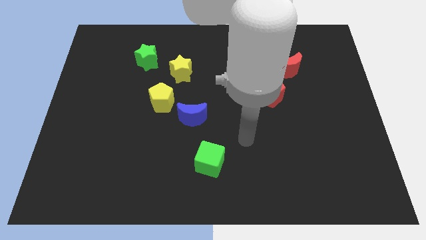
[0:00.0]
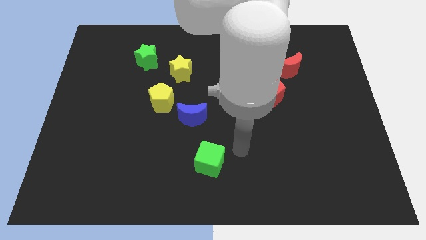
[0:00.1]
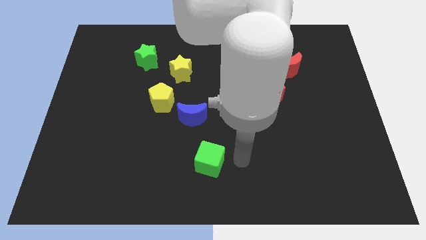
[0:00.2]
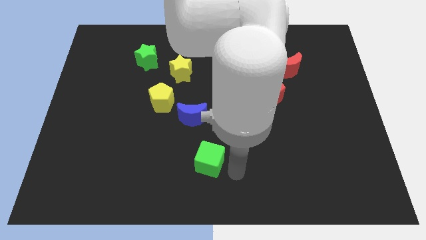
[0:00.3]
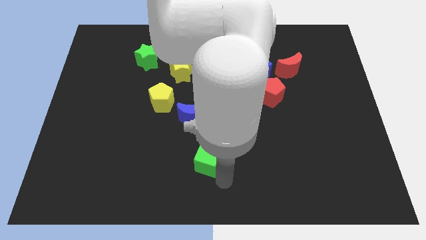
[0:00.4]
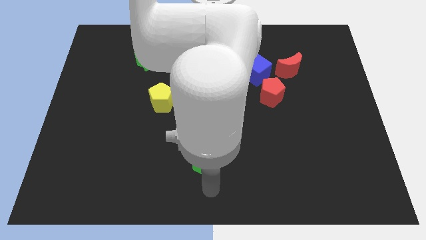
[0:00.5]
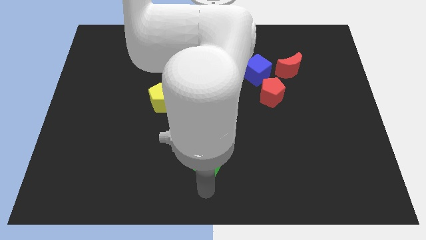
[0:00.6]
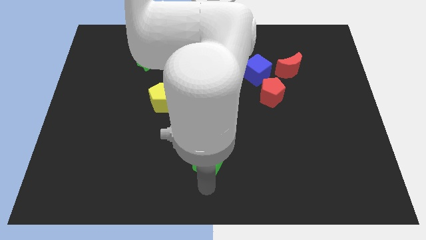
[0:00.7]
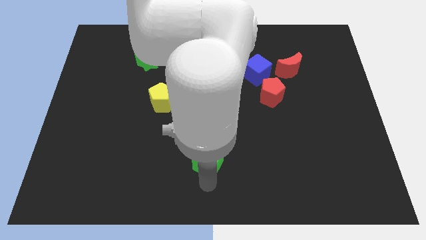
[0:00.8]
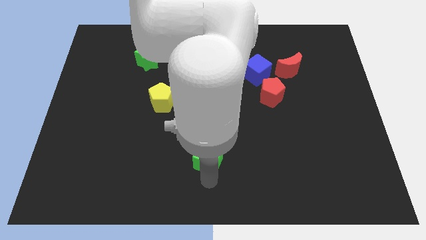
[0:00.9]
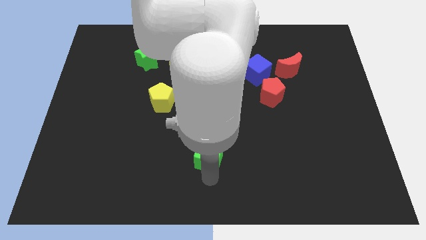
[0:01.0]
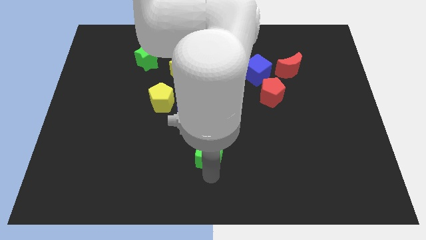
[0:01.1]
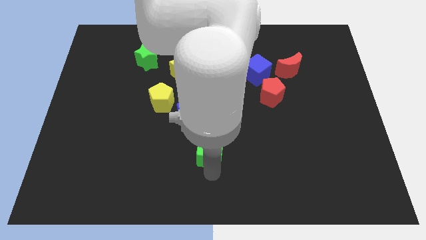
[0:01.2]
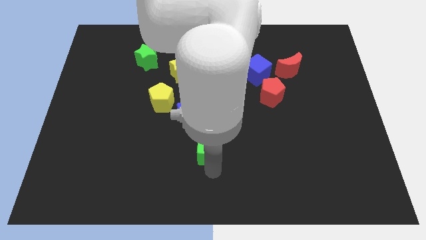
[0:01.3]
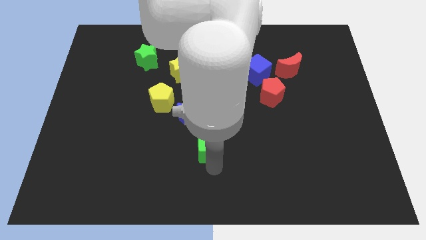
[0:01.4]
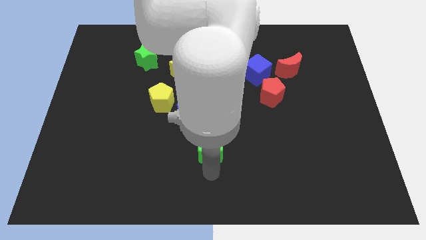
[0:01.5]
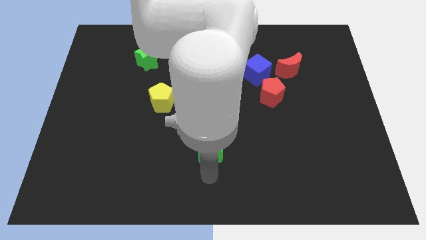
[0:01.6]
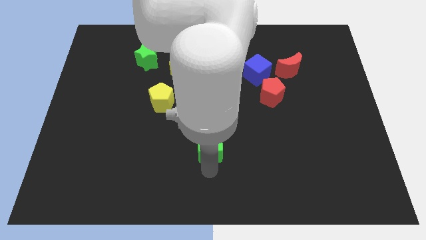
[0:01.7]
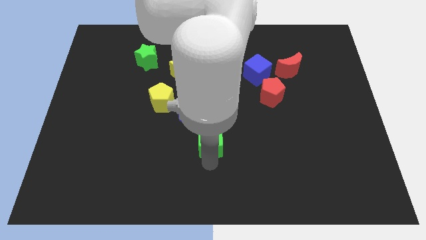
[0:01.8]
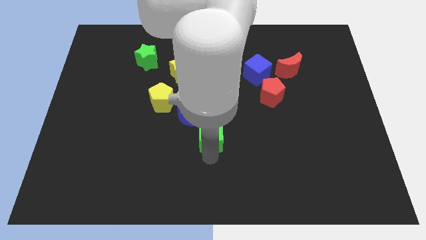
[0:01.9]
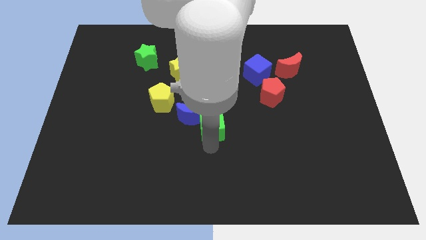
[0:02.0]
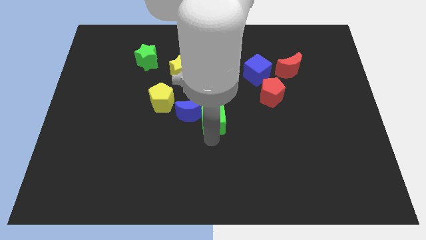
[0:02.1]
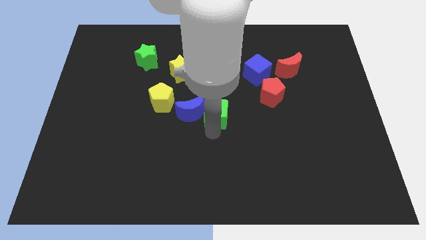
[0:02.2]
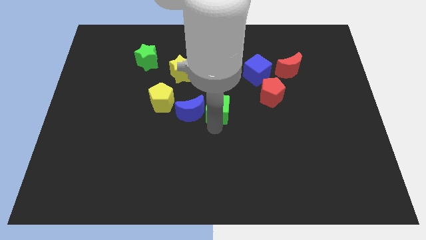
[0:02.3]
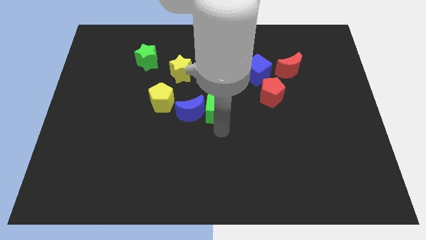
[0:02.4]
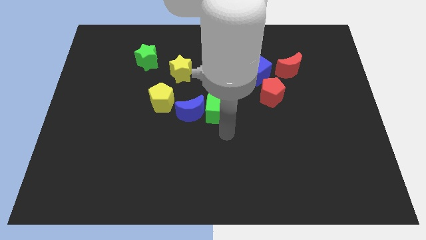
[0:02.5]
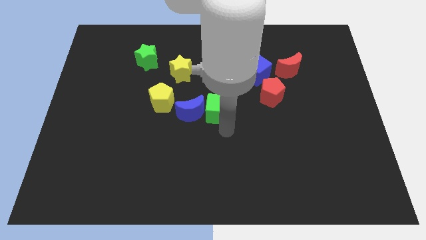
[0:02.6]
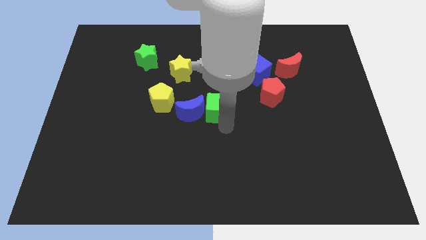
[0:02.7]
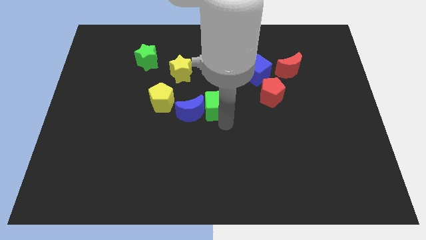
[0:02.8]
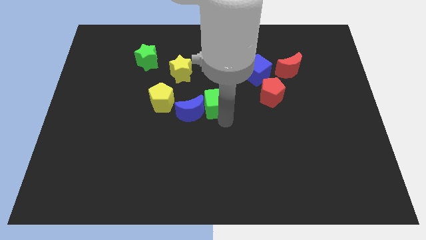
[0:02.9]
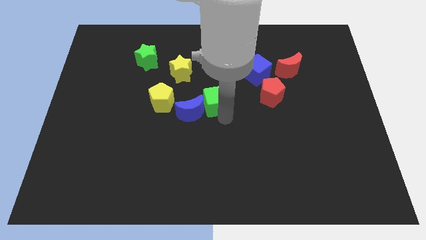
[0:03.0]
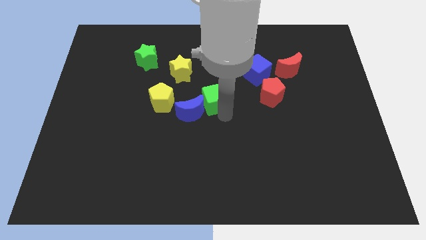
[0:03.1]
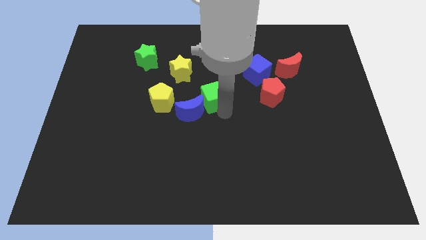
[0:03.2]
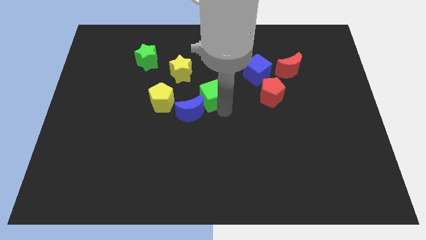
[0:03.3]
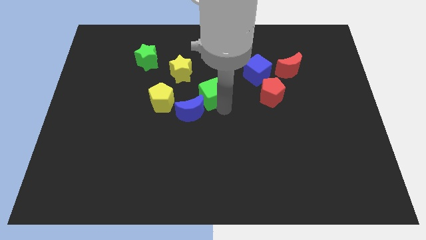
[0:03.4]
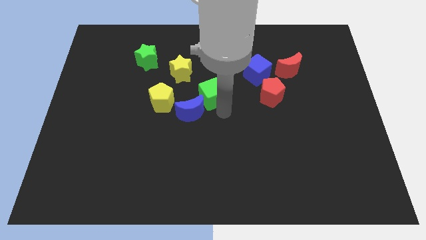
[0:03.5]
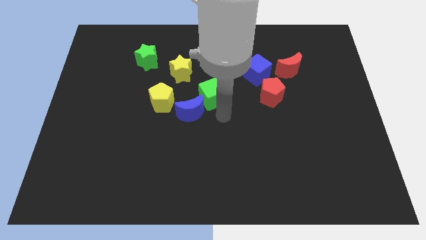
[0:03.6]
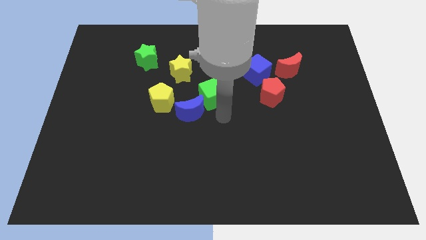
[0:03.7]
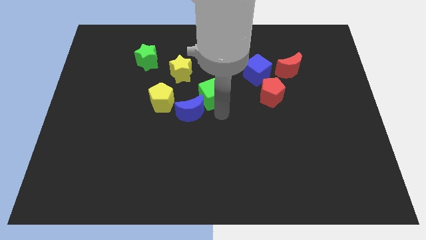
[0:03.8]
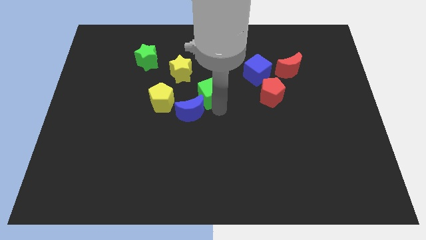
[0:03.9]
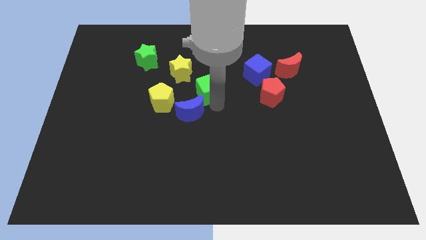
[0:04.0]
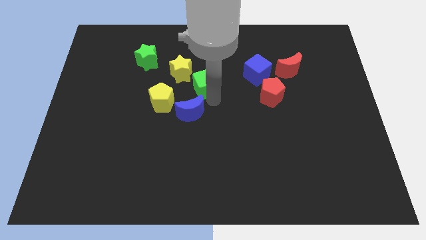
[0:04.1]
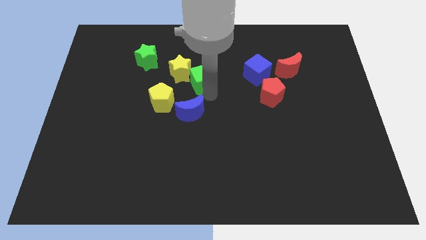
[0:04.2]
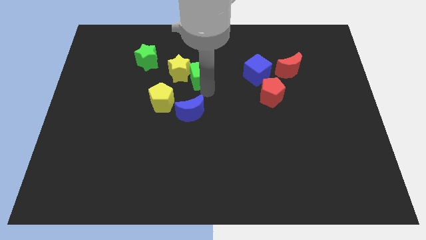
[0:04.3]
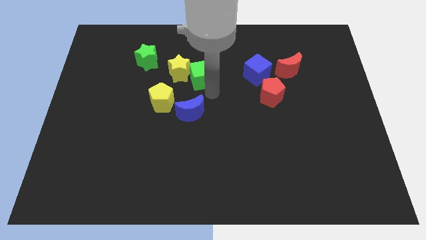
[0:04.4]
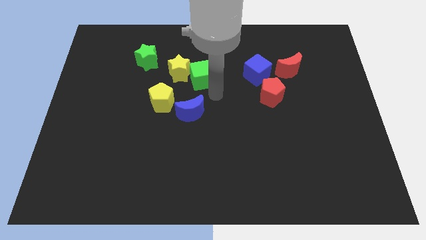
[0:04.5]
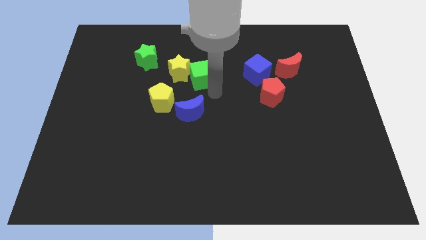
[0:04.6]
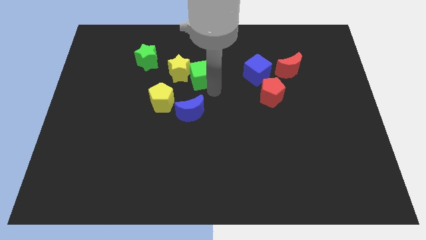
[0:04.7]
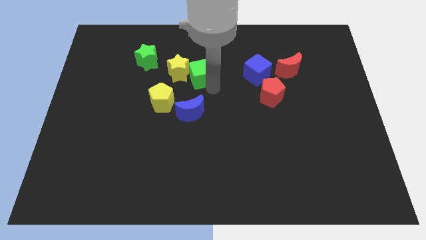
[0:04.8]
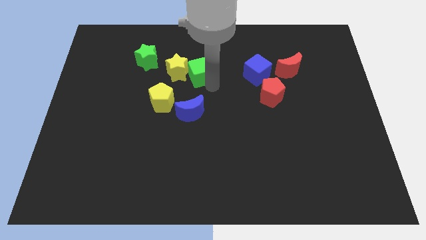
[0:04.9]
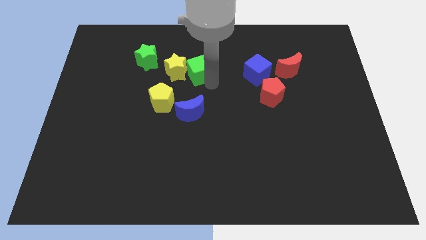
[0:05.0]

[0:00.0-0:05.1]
slide the green cube just right of the green star

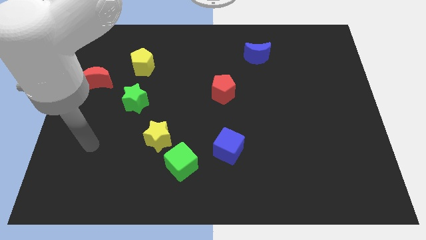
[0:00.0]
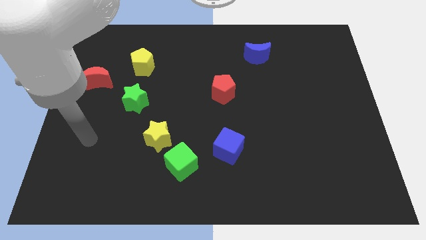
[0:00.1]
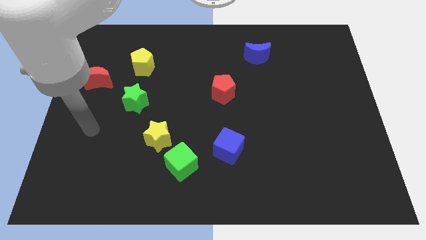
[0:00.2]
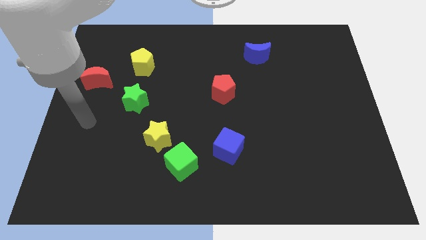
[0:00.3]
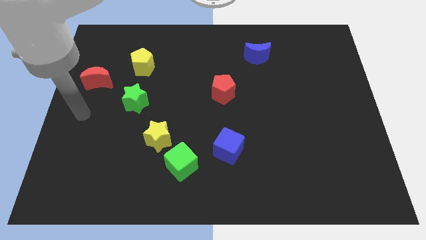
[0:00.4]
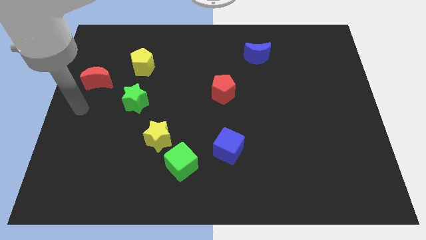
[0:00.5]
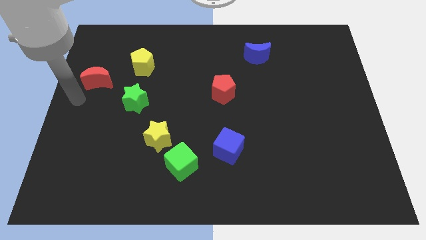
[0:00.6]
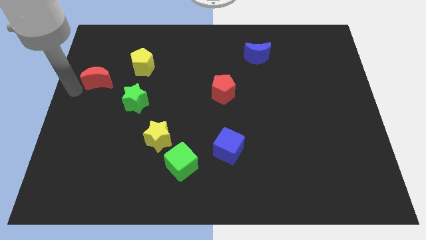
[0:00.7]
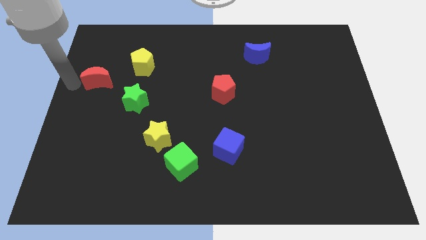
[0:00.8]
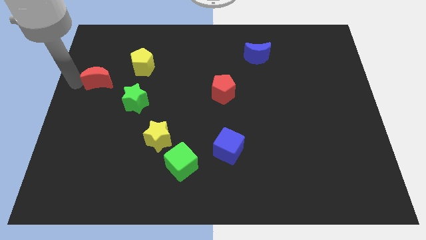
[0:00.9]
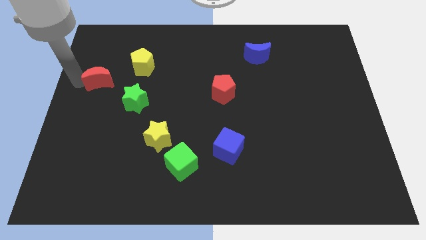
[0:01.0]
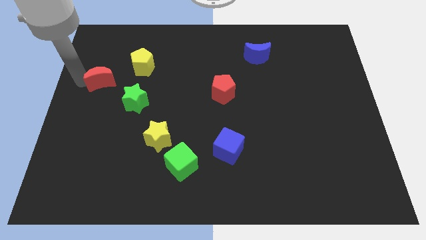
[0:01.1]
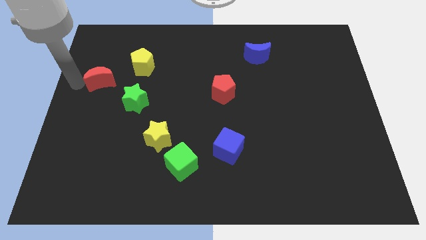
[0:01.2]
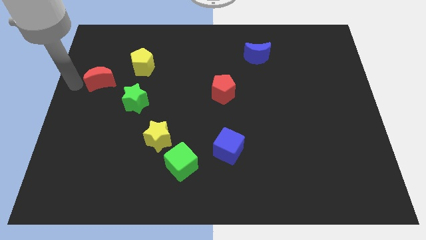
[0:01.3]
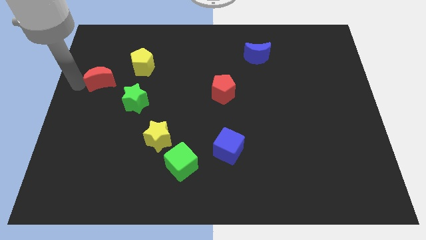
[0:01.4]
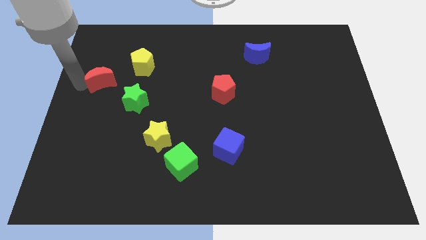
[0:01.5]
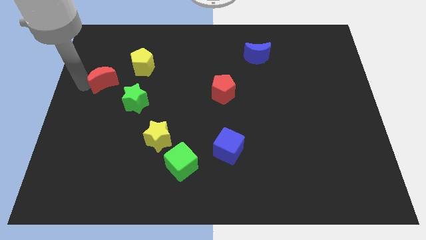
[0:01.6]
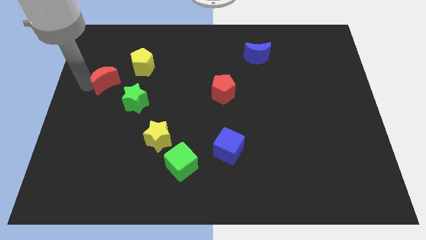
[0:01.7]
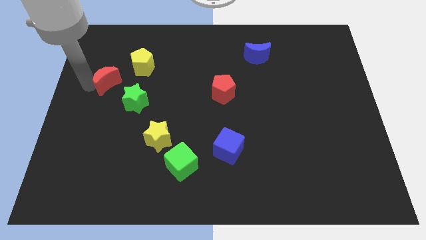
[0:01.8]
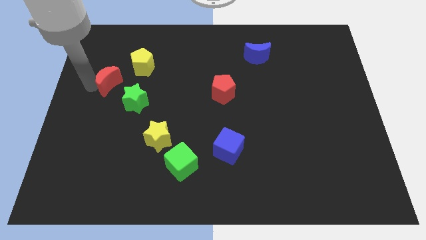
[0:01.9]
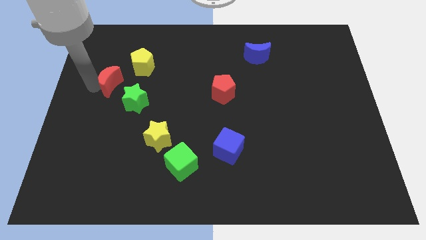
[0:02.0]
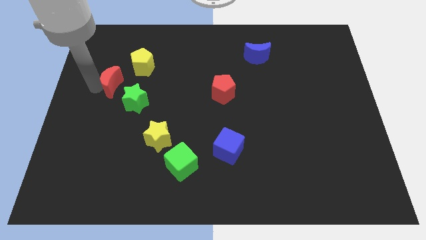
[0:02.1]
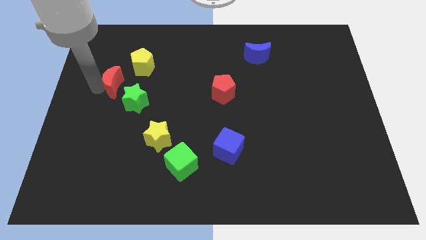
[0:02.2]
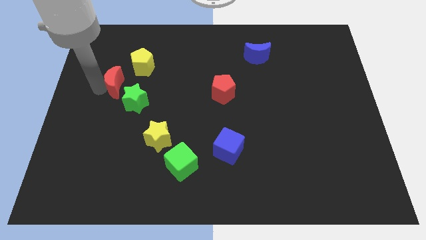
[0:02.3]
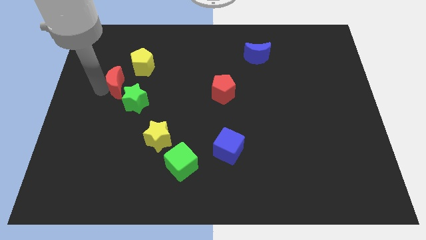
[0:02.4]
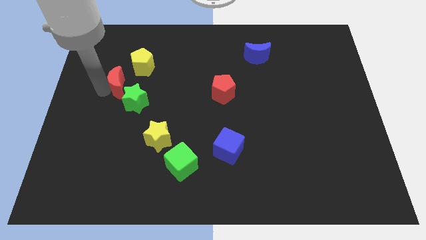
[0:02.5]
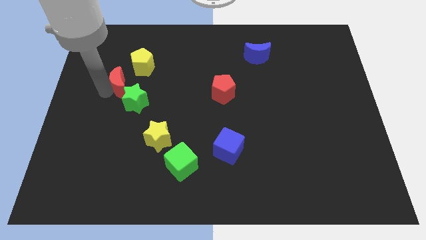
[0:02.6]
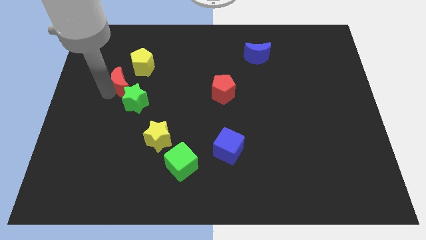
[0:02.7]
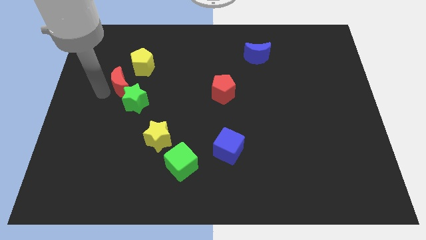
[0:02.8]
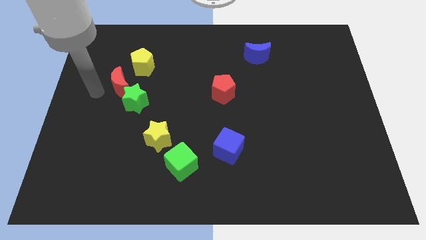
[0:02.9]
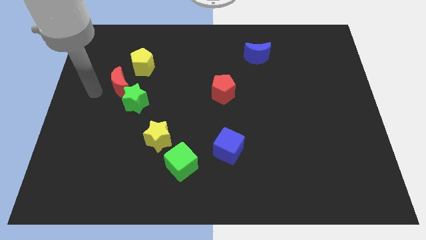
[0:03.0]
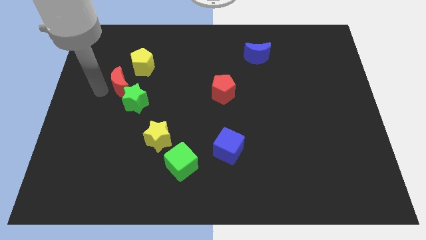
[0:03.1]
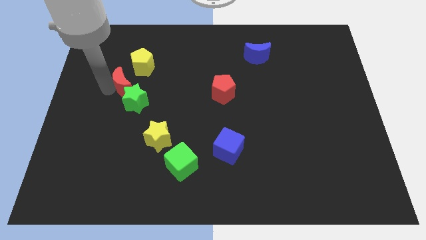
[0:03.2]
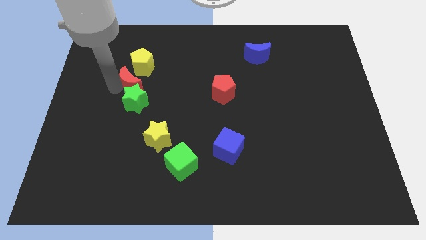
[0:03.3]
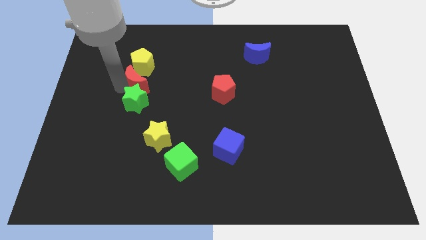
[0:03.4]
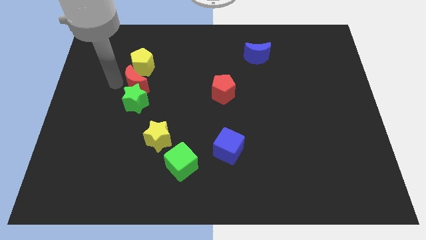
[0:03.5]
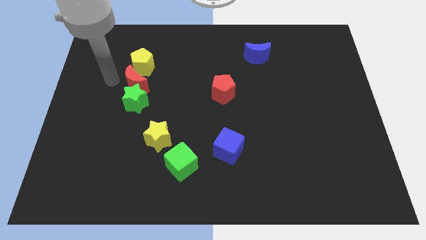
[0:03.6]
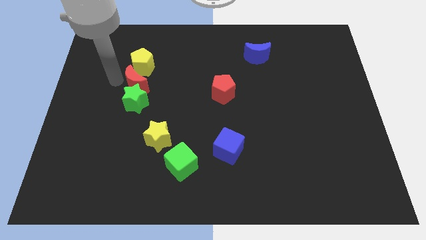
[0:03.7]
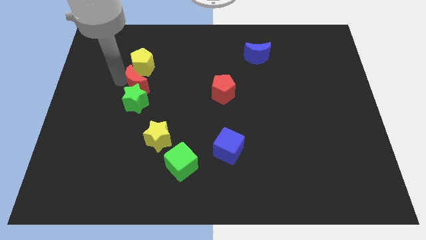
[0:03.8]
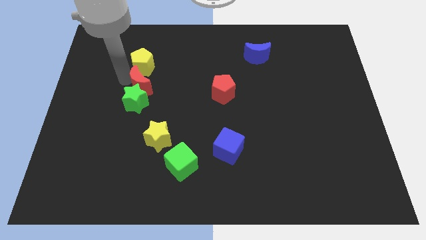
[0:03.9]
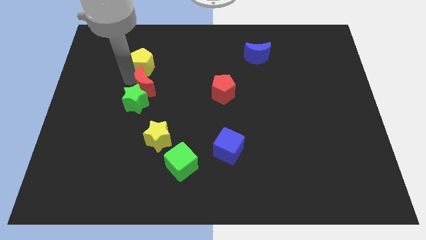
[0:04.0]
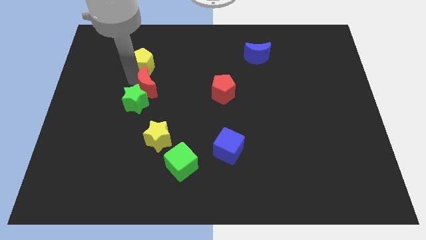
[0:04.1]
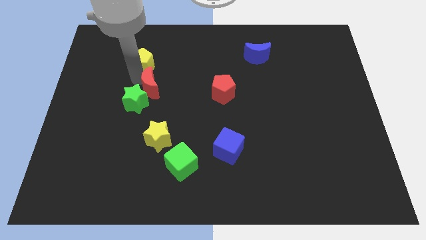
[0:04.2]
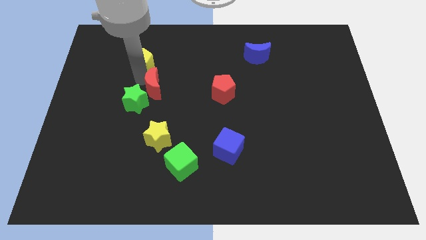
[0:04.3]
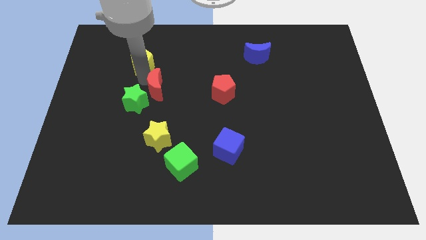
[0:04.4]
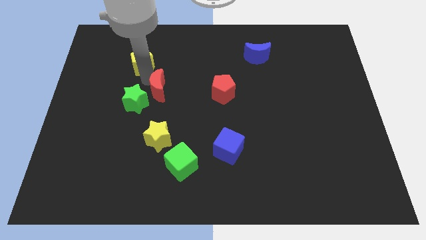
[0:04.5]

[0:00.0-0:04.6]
push the red moon left of the red pentagon
